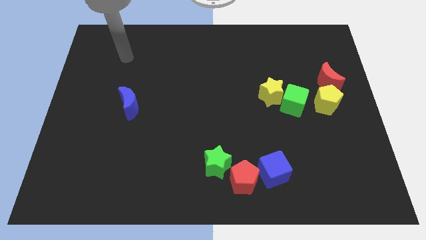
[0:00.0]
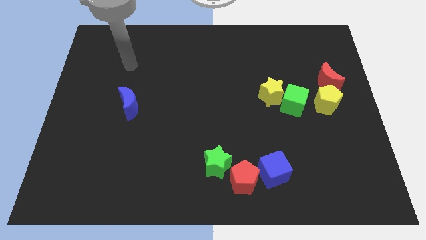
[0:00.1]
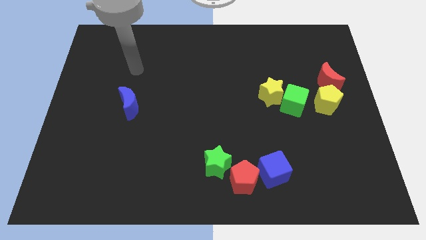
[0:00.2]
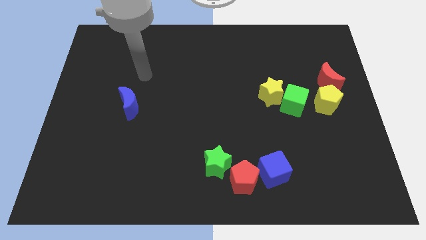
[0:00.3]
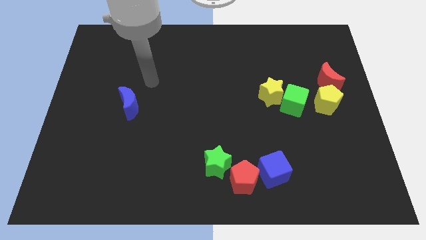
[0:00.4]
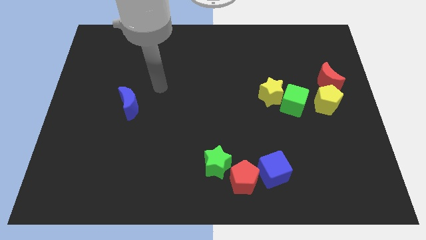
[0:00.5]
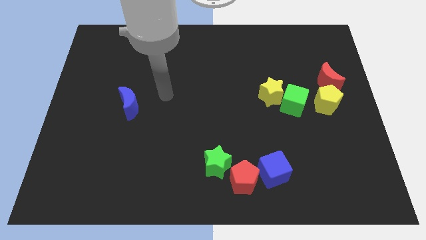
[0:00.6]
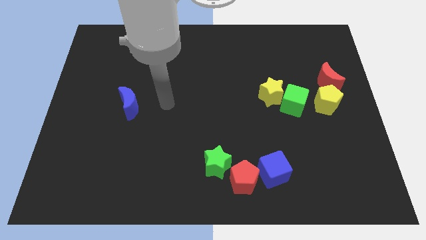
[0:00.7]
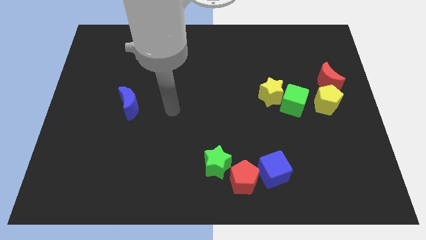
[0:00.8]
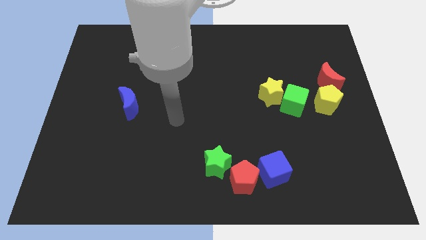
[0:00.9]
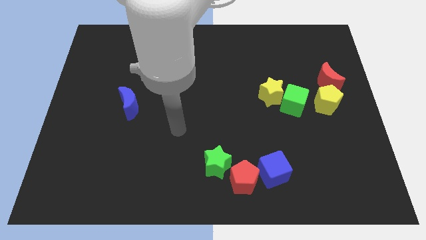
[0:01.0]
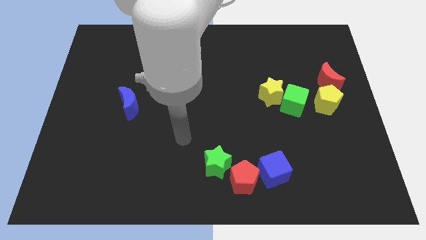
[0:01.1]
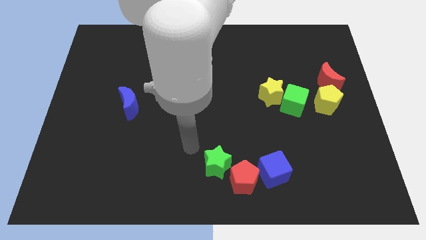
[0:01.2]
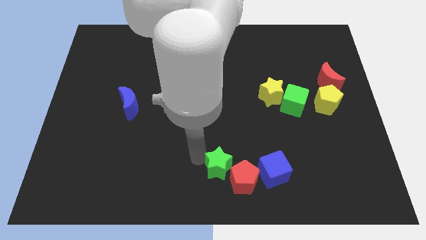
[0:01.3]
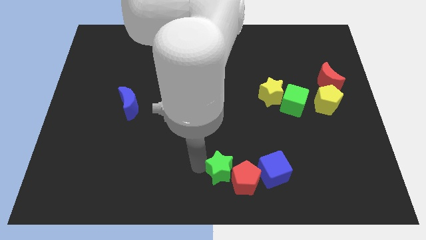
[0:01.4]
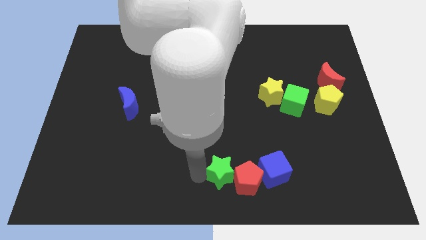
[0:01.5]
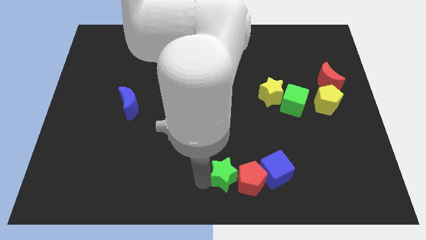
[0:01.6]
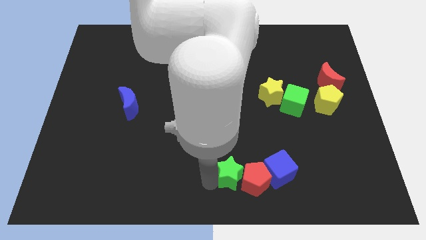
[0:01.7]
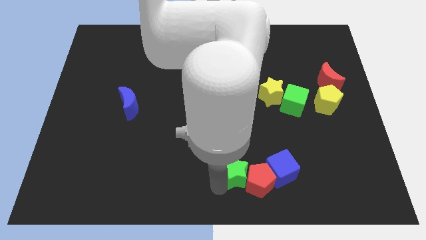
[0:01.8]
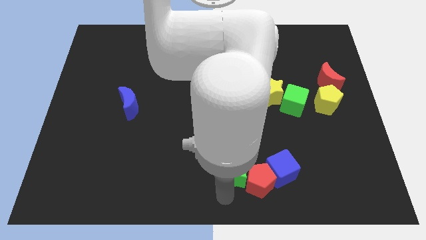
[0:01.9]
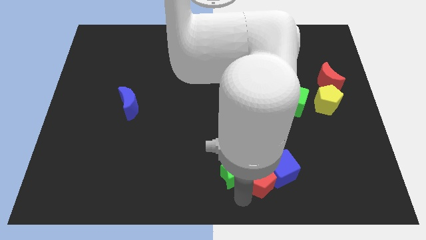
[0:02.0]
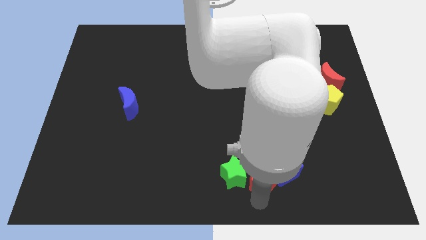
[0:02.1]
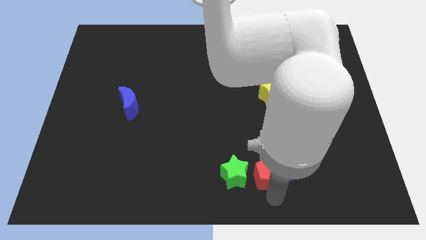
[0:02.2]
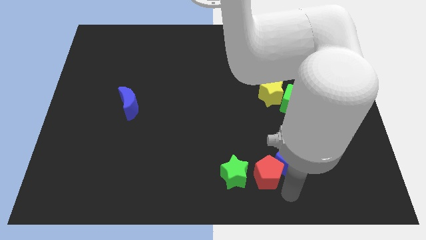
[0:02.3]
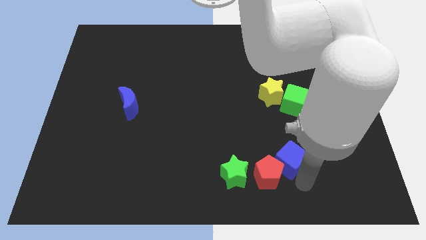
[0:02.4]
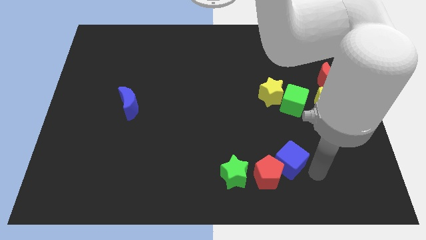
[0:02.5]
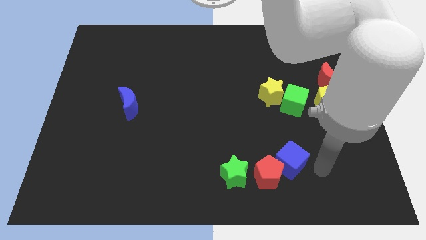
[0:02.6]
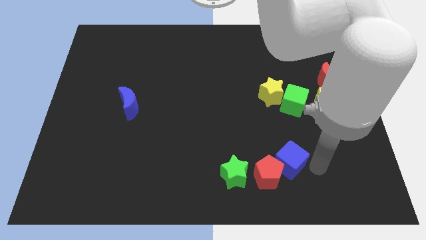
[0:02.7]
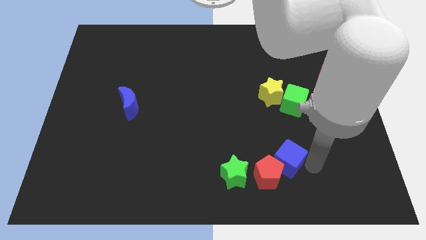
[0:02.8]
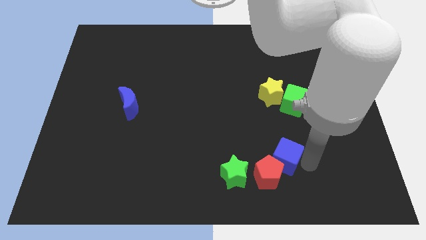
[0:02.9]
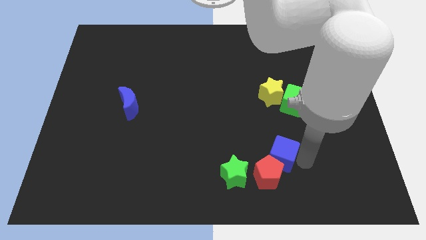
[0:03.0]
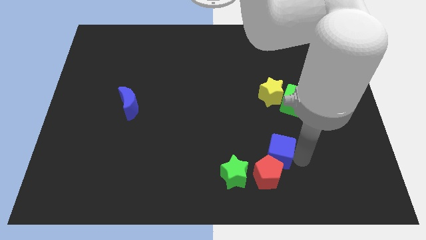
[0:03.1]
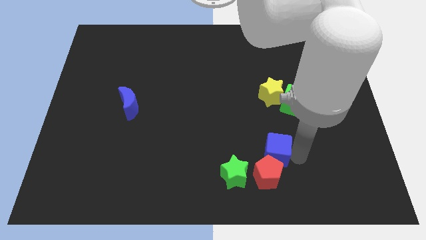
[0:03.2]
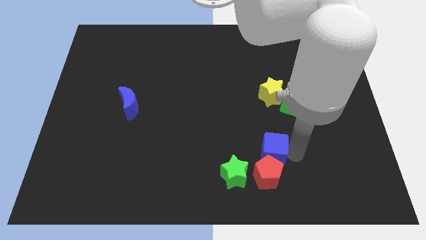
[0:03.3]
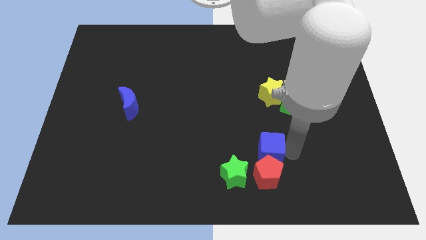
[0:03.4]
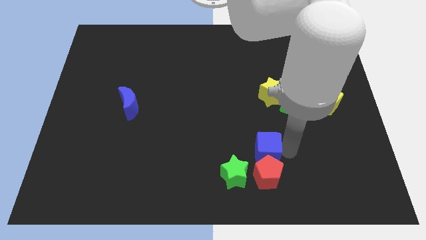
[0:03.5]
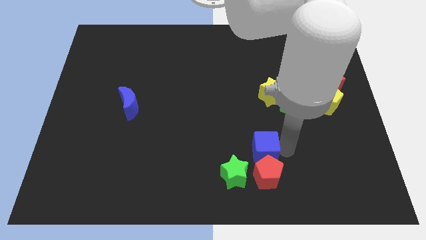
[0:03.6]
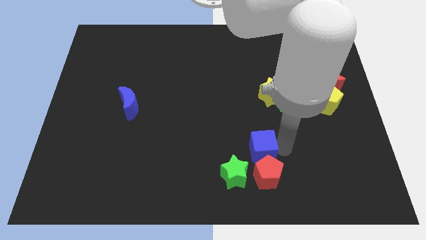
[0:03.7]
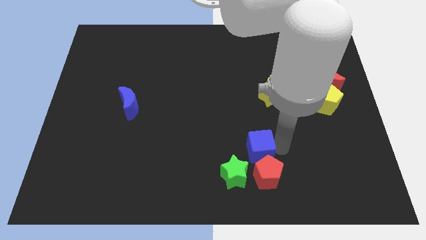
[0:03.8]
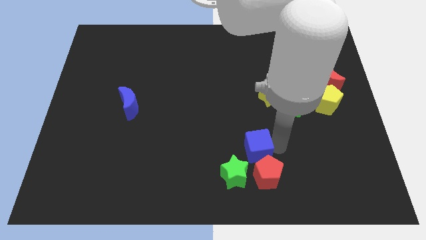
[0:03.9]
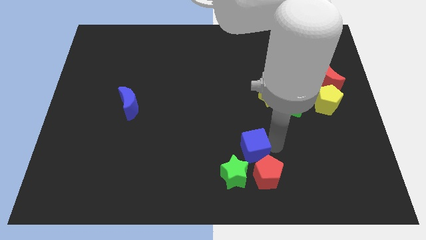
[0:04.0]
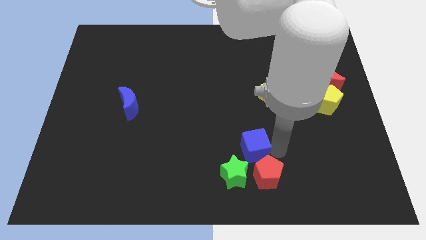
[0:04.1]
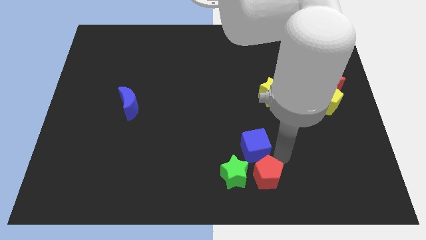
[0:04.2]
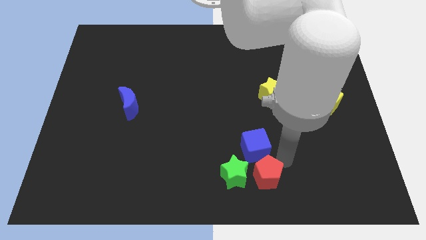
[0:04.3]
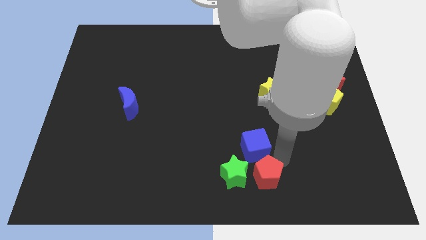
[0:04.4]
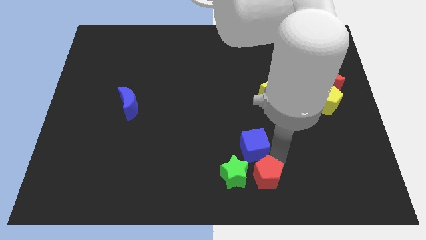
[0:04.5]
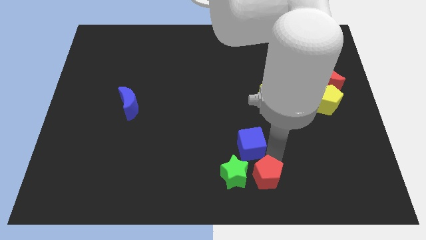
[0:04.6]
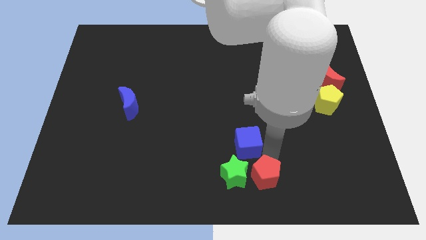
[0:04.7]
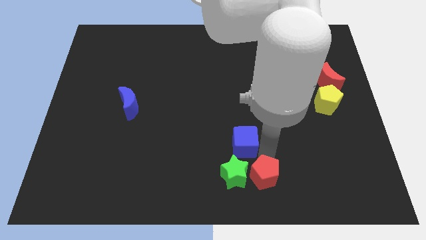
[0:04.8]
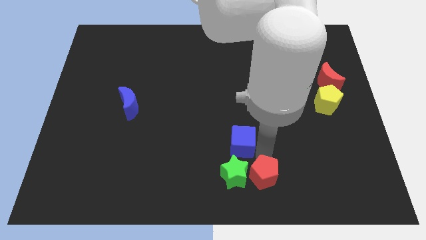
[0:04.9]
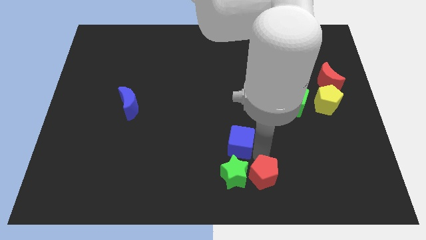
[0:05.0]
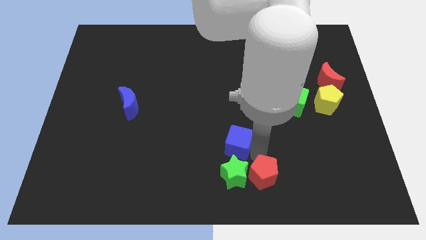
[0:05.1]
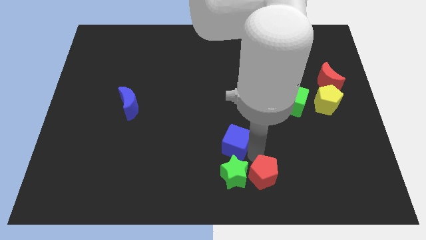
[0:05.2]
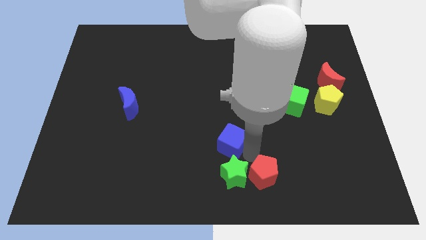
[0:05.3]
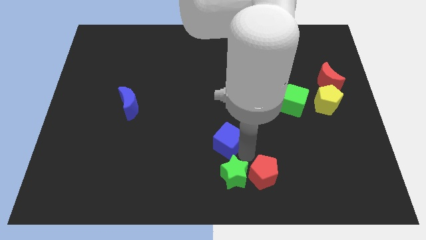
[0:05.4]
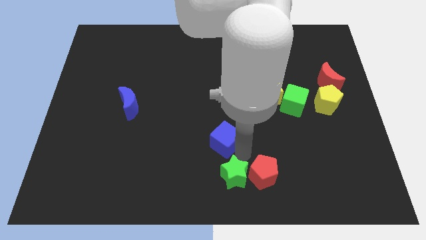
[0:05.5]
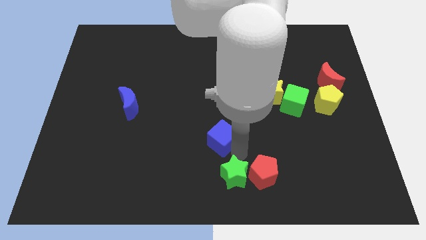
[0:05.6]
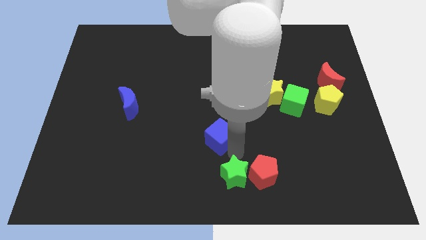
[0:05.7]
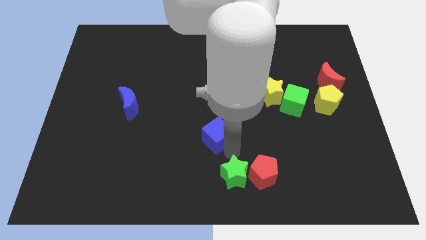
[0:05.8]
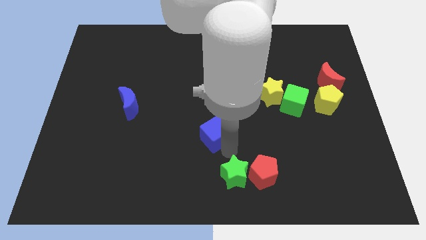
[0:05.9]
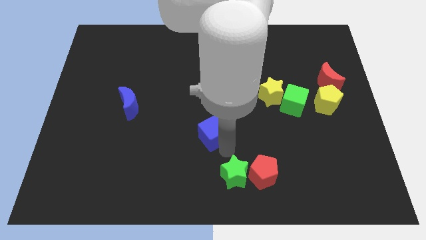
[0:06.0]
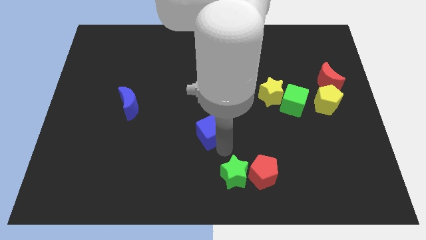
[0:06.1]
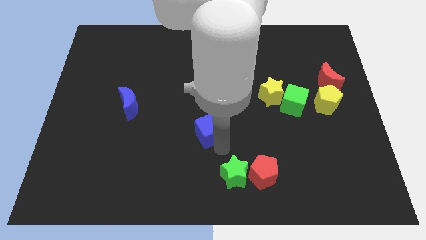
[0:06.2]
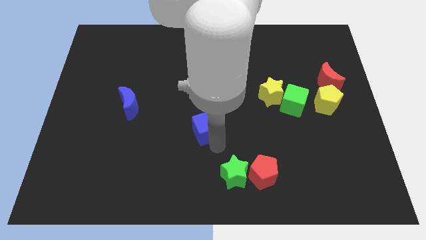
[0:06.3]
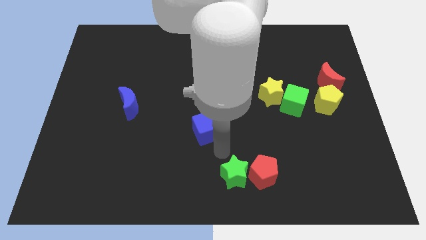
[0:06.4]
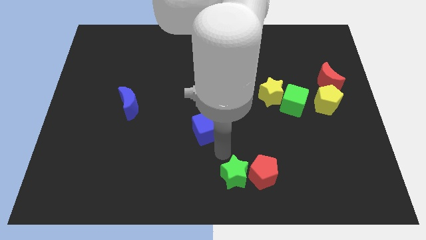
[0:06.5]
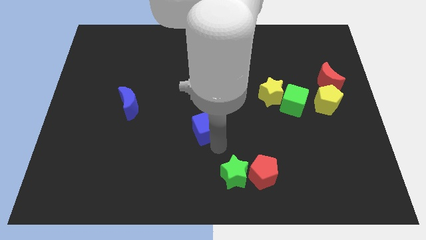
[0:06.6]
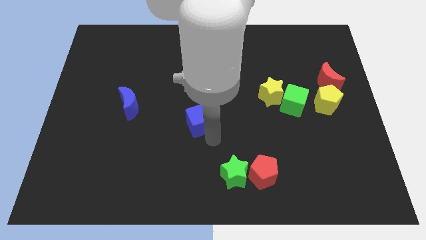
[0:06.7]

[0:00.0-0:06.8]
slide the blue cube up and then left

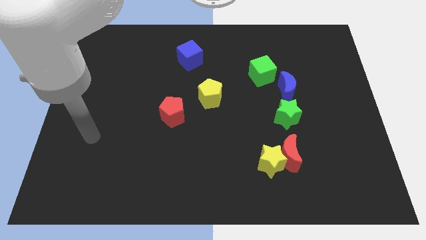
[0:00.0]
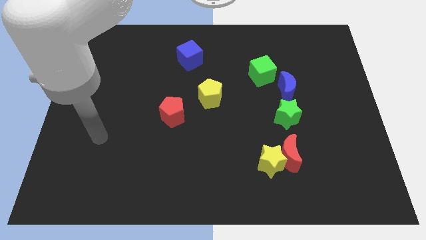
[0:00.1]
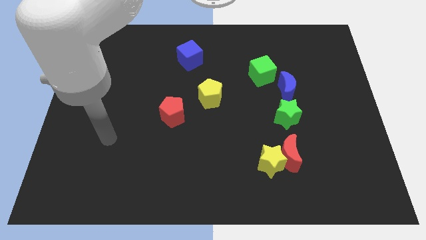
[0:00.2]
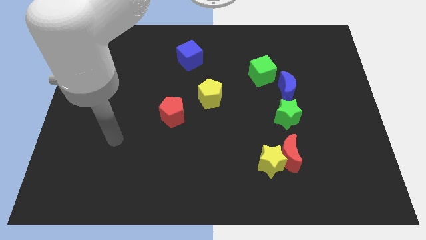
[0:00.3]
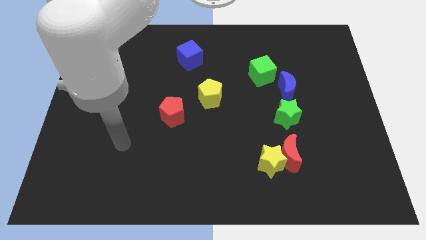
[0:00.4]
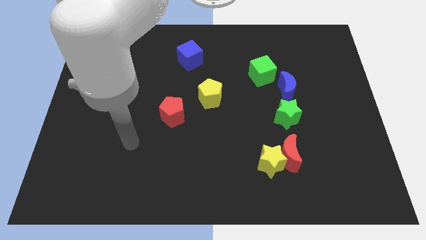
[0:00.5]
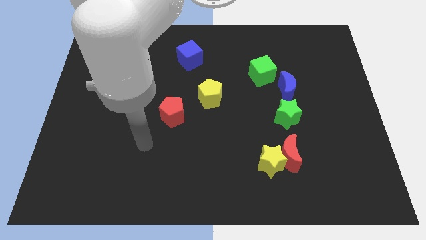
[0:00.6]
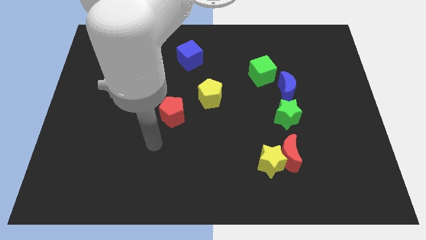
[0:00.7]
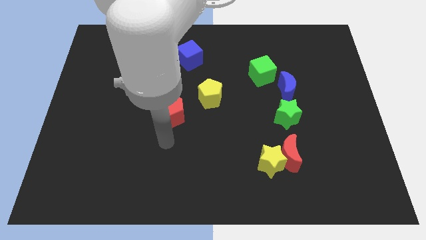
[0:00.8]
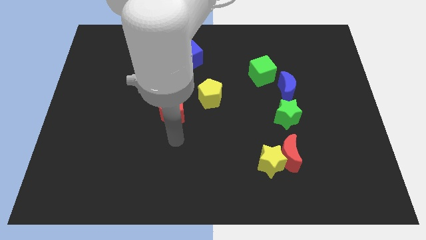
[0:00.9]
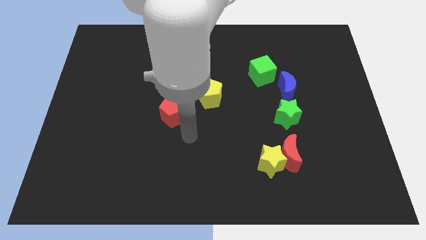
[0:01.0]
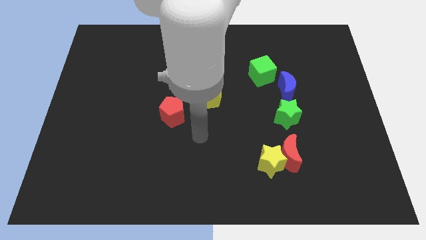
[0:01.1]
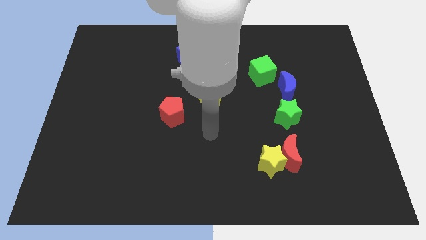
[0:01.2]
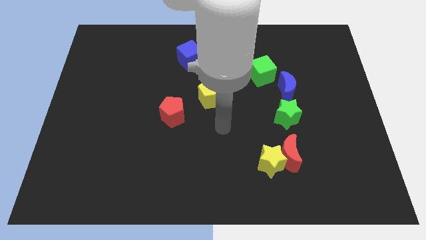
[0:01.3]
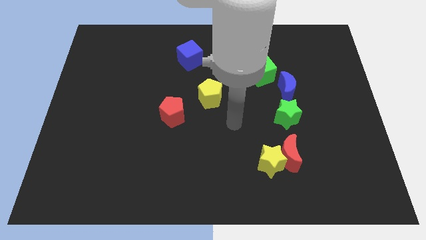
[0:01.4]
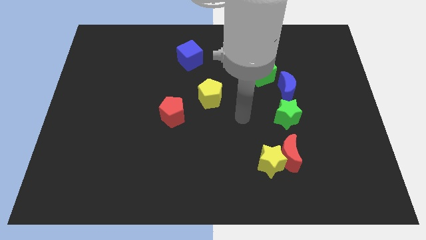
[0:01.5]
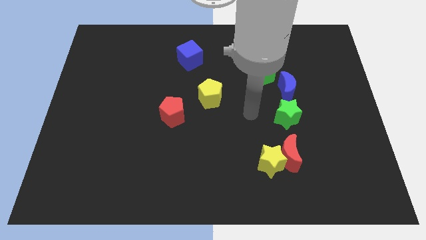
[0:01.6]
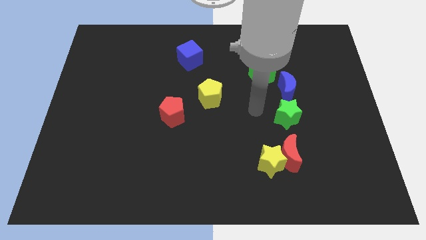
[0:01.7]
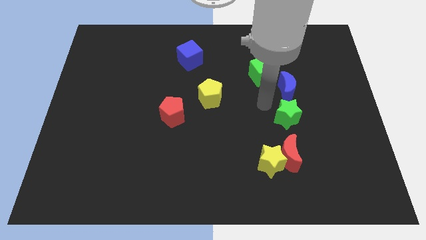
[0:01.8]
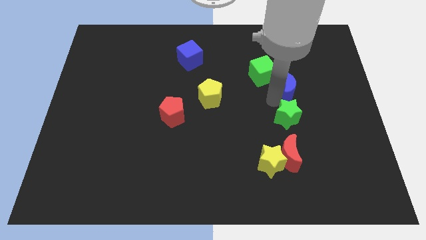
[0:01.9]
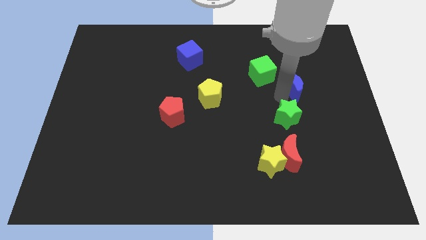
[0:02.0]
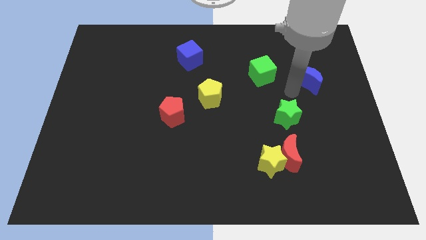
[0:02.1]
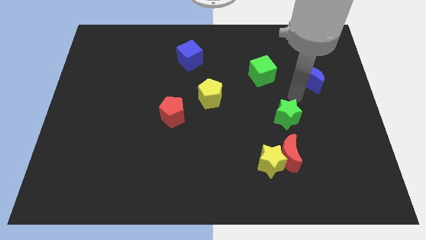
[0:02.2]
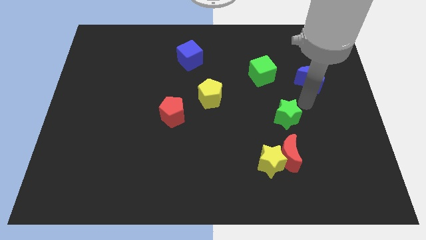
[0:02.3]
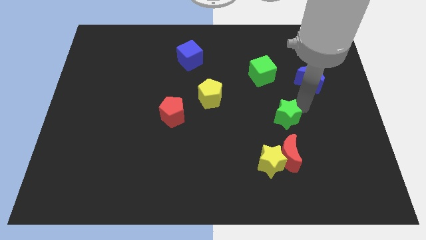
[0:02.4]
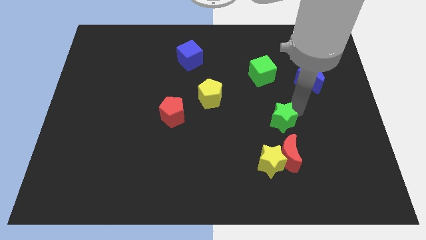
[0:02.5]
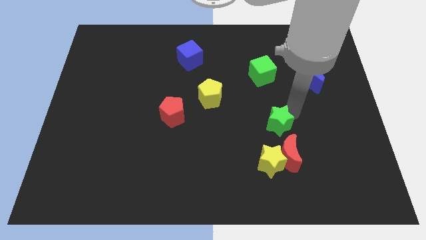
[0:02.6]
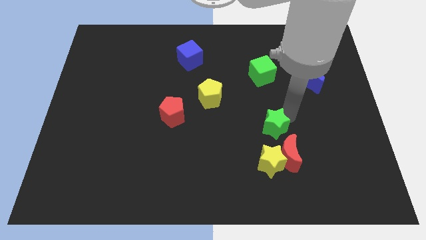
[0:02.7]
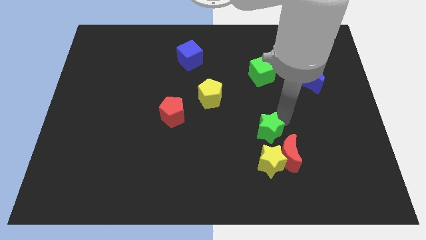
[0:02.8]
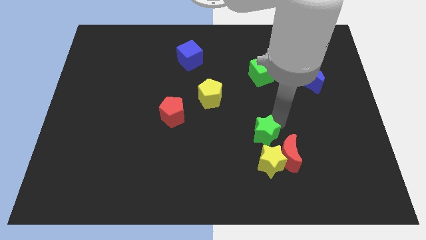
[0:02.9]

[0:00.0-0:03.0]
push the green star a little downwards and then to the left
